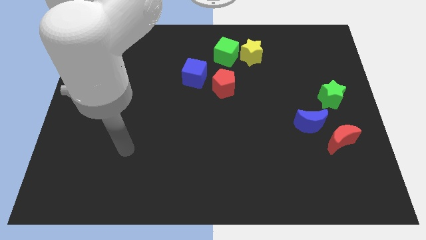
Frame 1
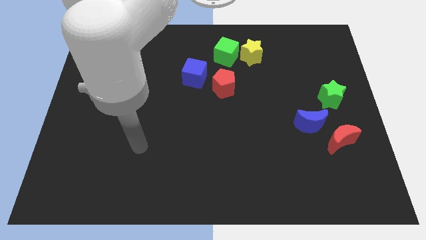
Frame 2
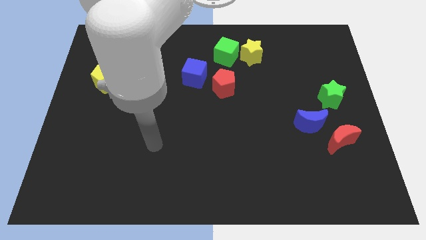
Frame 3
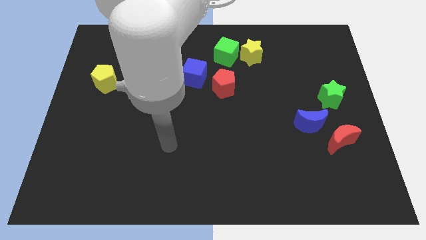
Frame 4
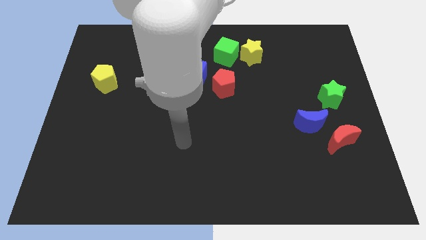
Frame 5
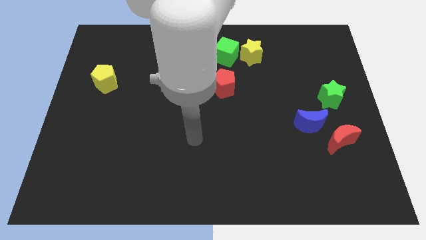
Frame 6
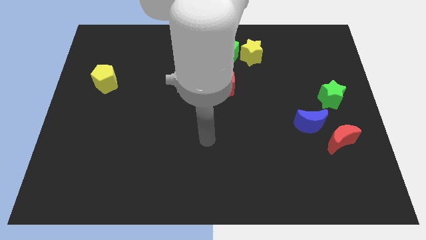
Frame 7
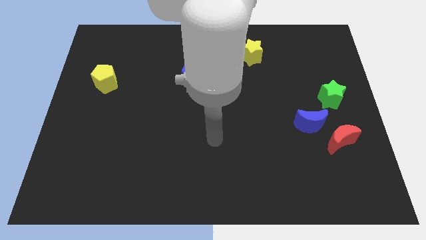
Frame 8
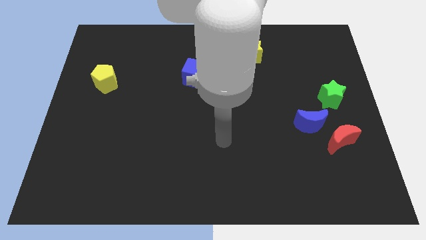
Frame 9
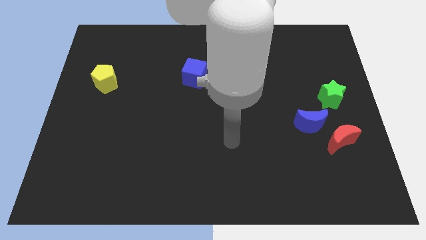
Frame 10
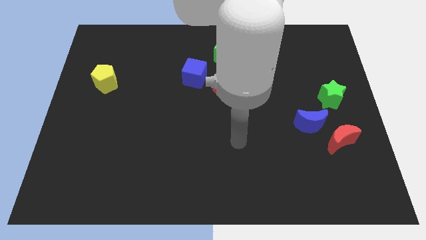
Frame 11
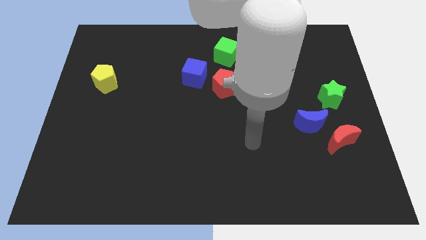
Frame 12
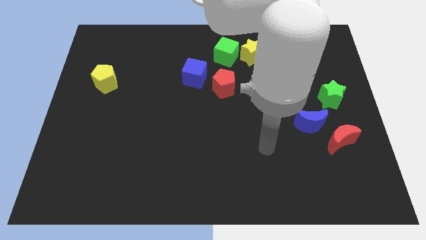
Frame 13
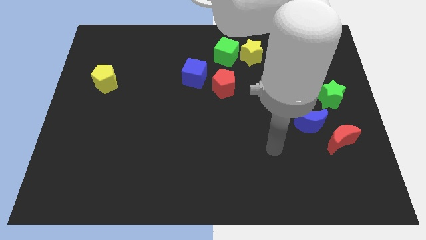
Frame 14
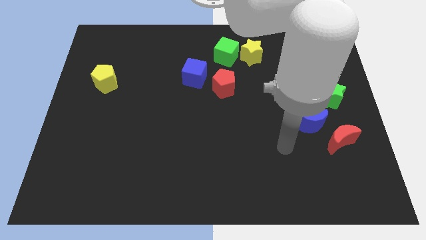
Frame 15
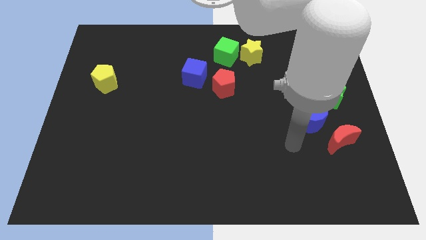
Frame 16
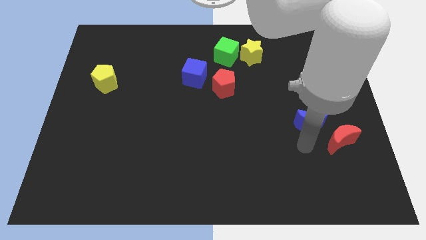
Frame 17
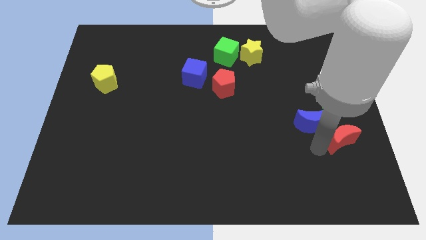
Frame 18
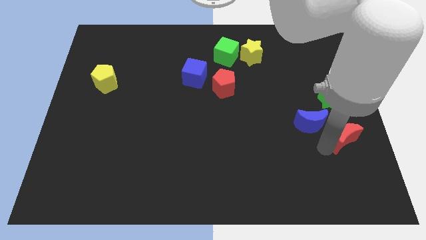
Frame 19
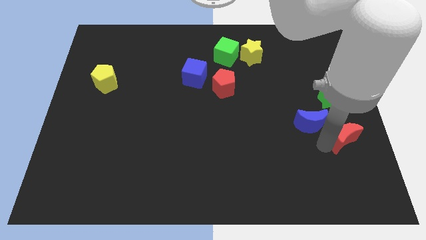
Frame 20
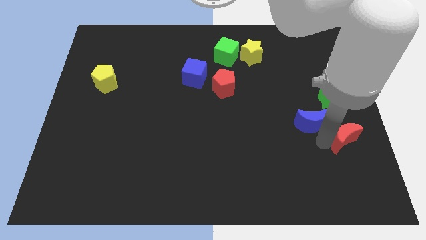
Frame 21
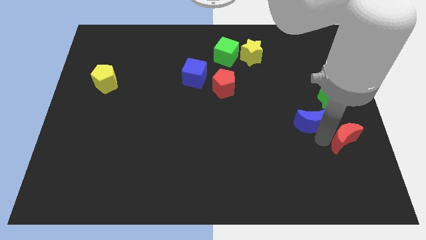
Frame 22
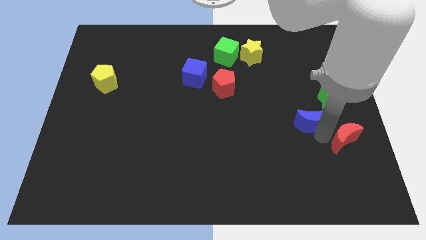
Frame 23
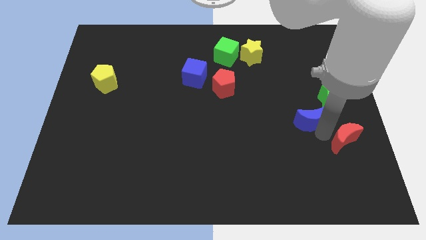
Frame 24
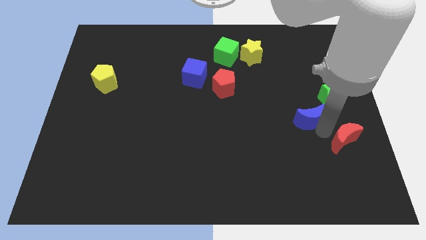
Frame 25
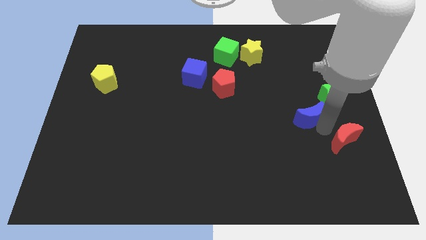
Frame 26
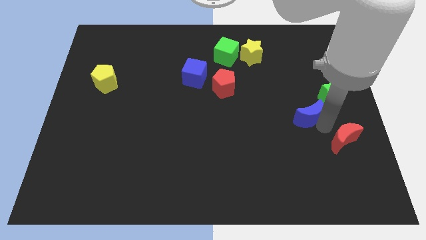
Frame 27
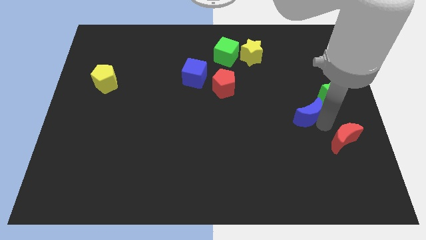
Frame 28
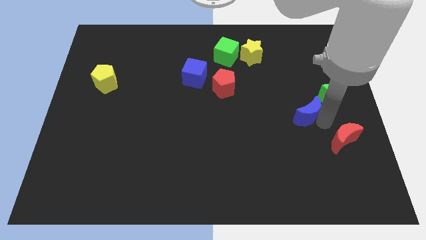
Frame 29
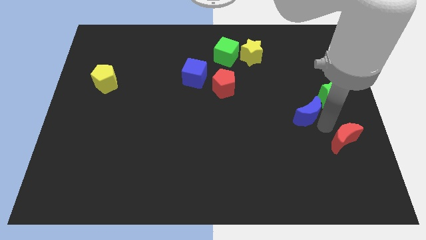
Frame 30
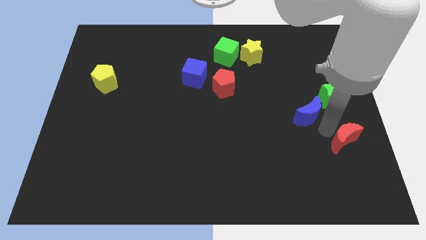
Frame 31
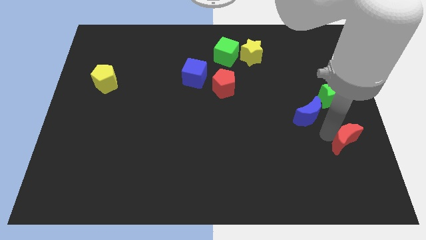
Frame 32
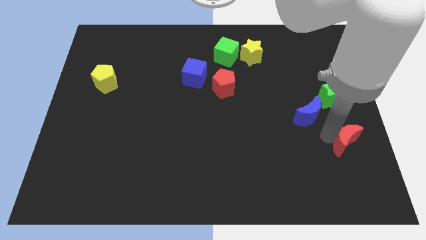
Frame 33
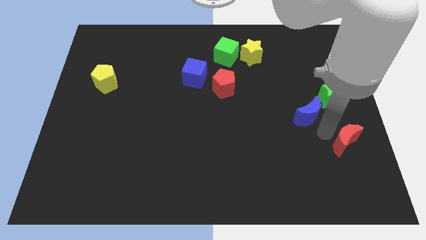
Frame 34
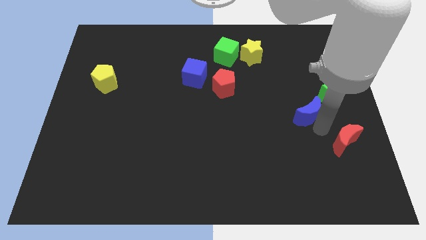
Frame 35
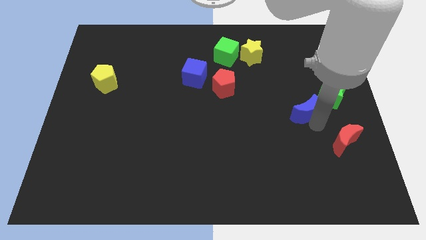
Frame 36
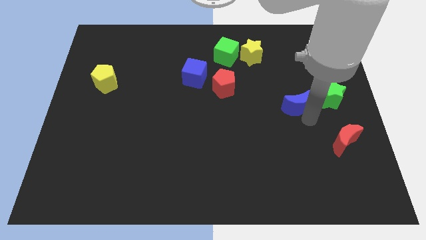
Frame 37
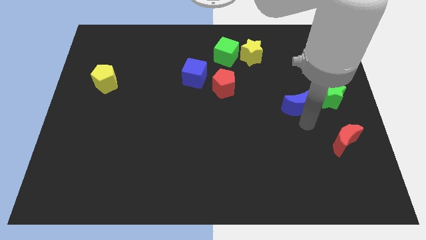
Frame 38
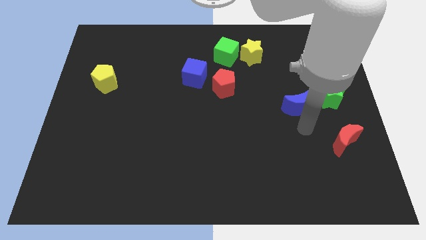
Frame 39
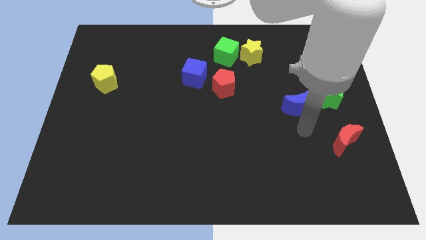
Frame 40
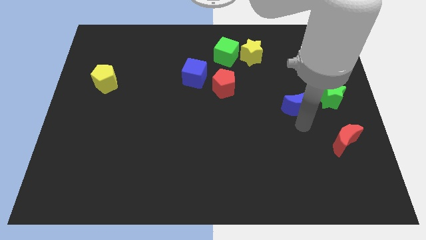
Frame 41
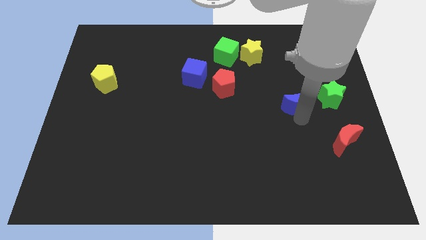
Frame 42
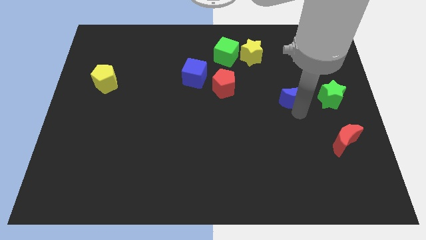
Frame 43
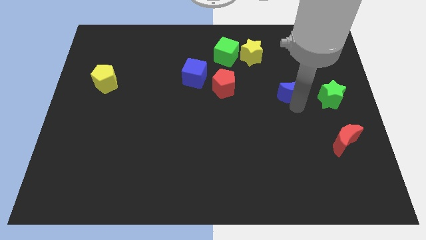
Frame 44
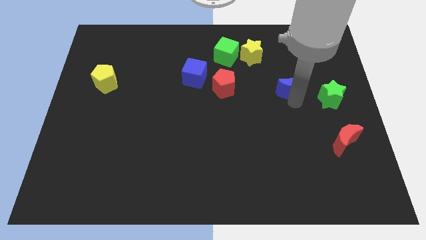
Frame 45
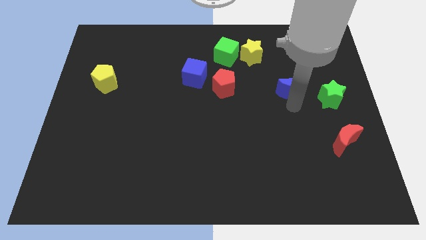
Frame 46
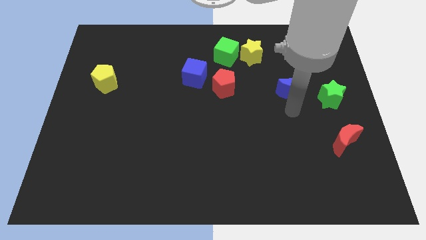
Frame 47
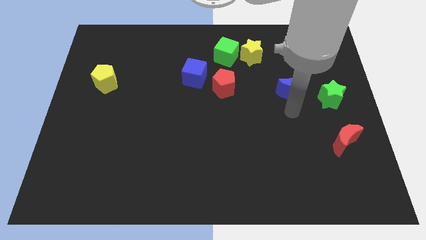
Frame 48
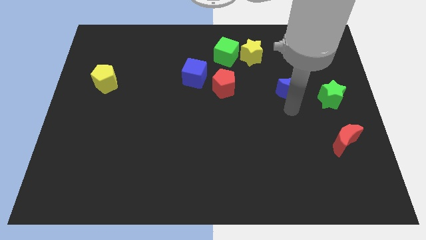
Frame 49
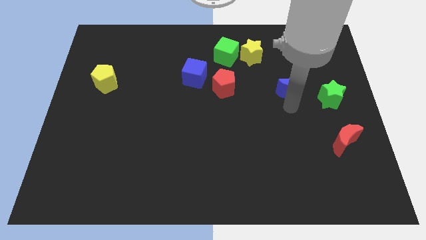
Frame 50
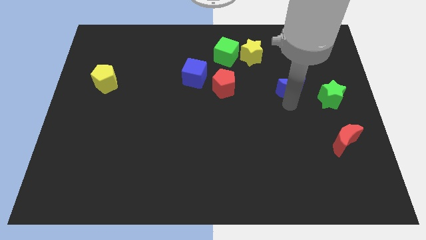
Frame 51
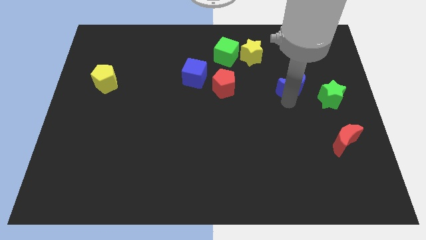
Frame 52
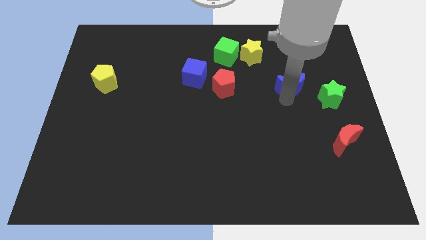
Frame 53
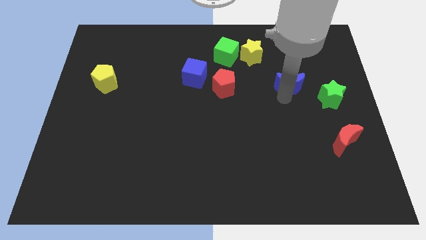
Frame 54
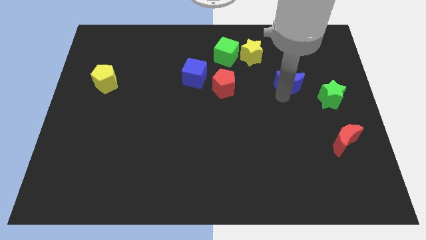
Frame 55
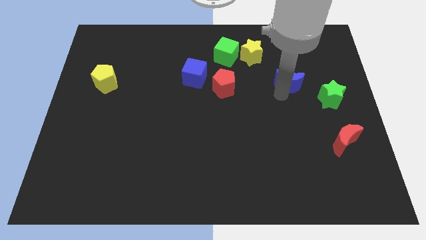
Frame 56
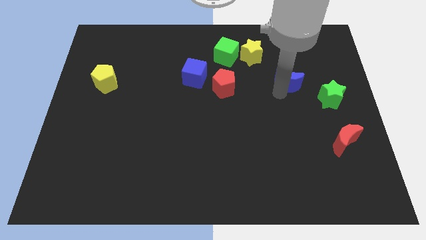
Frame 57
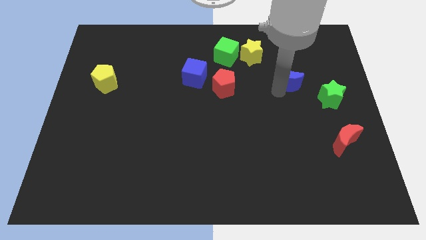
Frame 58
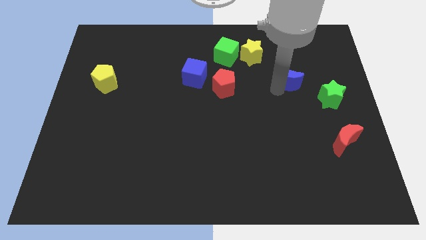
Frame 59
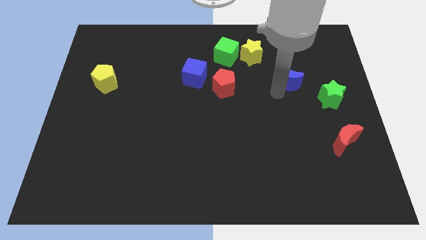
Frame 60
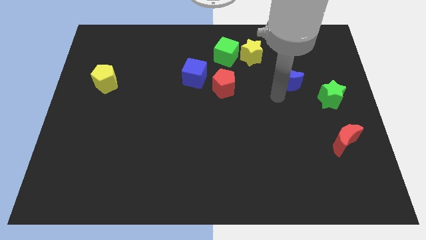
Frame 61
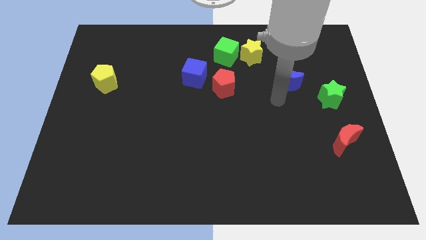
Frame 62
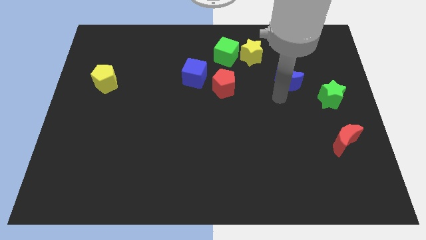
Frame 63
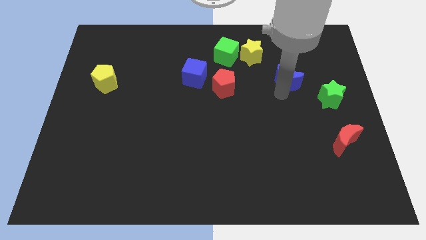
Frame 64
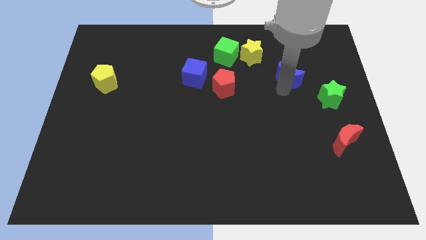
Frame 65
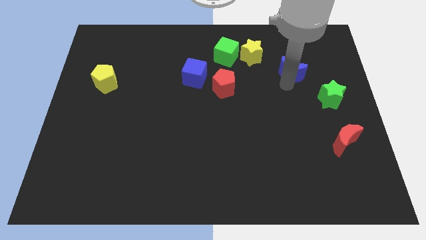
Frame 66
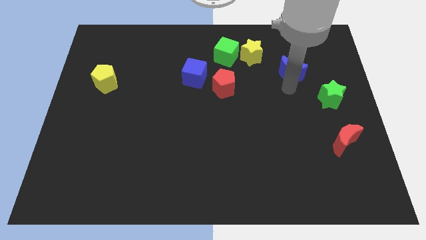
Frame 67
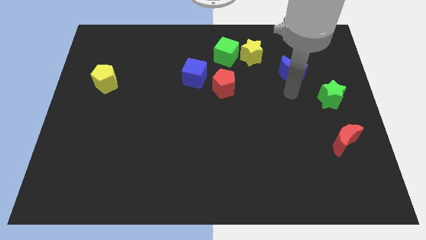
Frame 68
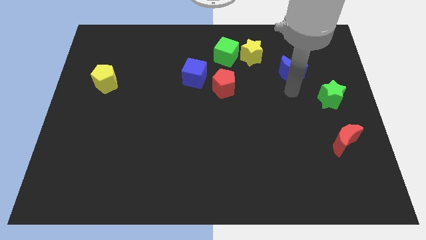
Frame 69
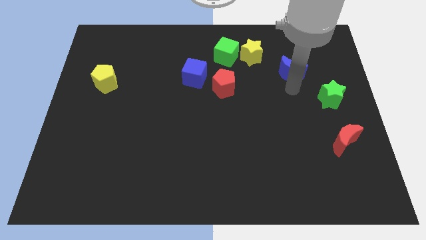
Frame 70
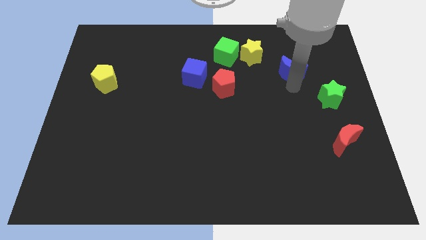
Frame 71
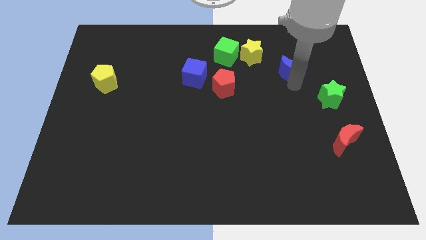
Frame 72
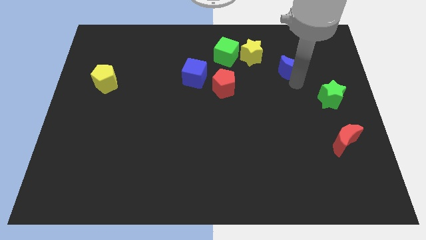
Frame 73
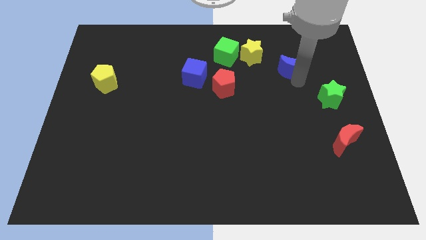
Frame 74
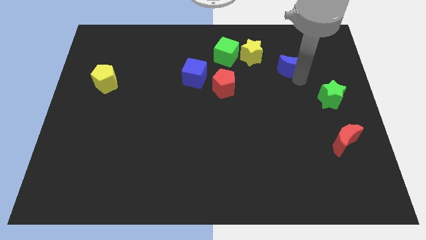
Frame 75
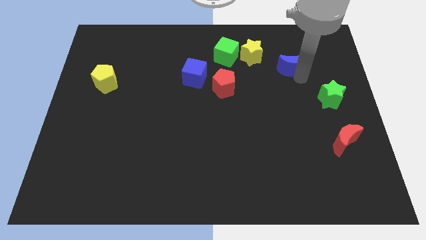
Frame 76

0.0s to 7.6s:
move the blue moon just right of the yellow star
